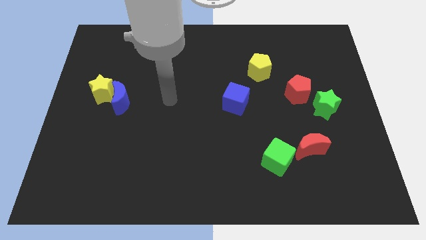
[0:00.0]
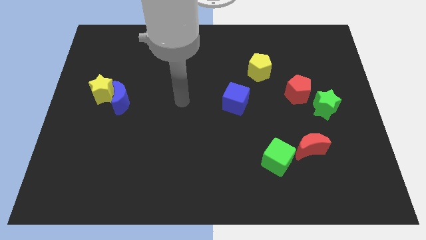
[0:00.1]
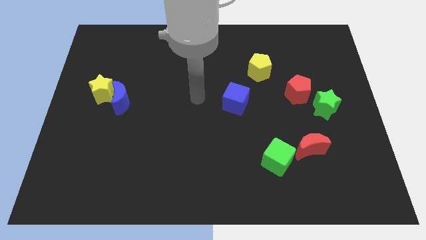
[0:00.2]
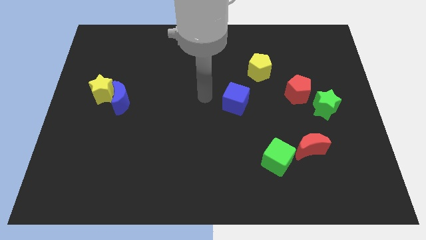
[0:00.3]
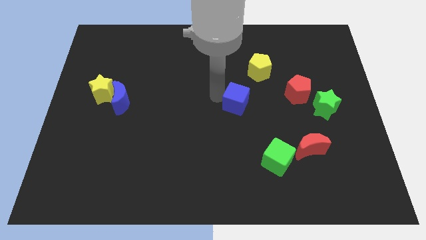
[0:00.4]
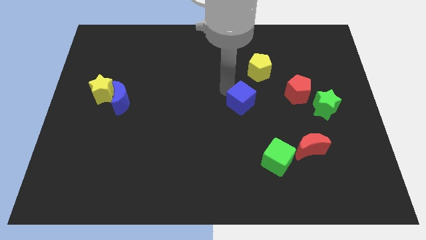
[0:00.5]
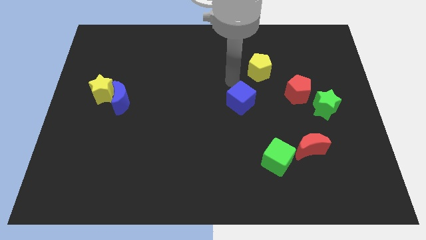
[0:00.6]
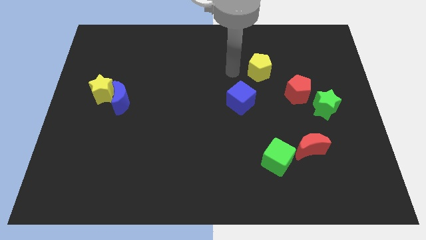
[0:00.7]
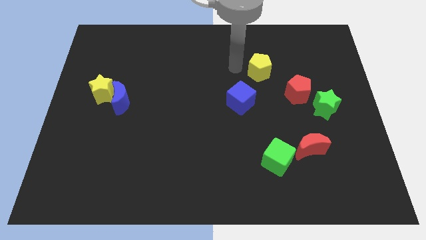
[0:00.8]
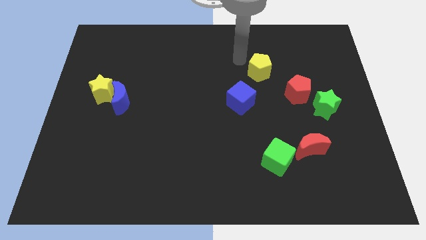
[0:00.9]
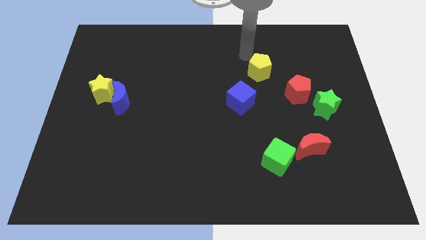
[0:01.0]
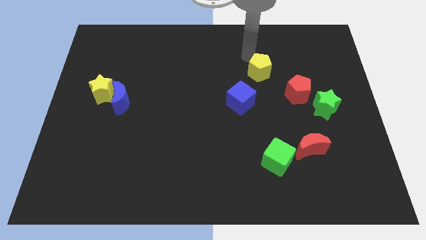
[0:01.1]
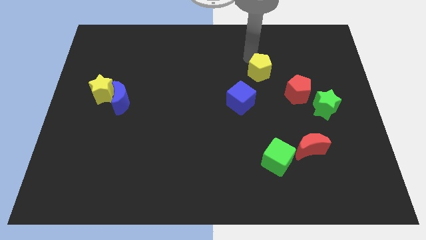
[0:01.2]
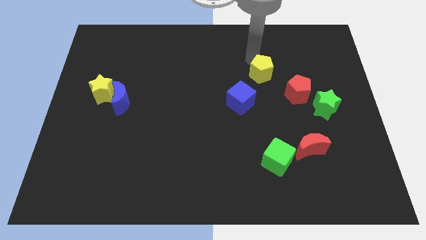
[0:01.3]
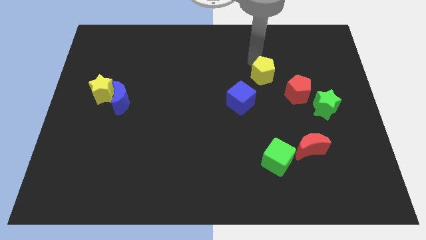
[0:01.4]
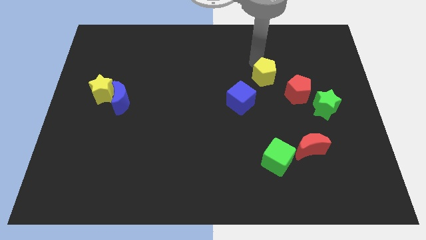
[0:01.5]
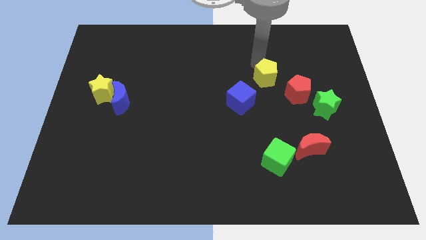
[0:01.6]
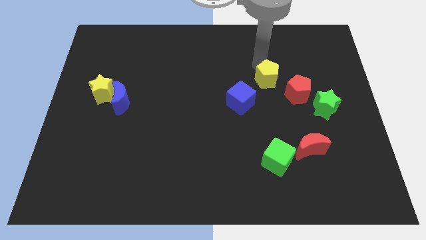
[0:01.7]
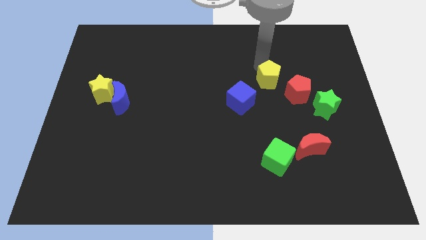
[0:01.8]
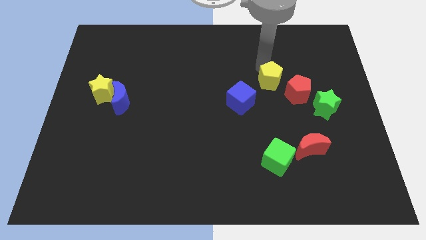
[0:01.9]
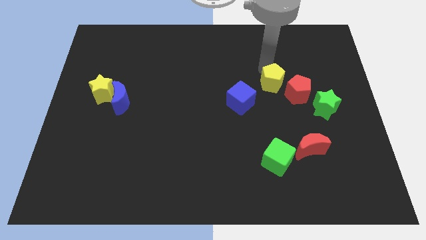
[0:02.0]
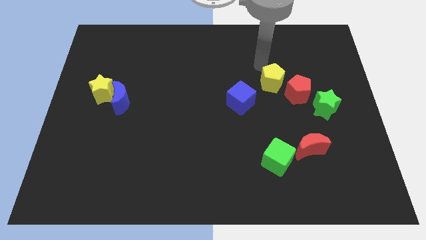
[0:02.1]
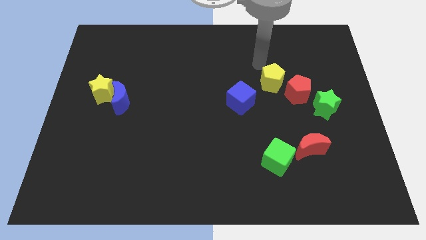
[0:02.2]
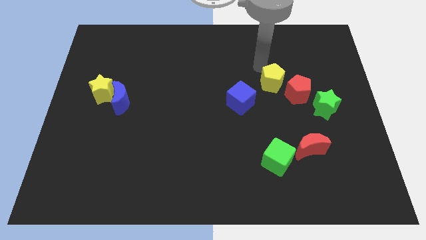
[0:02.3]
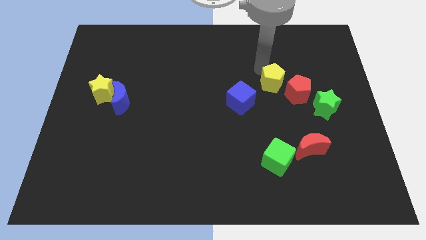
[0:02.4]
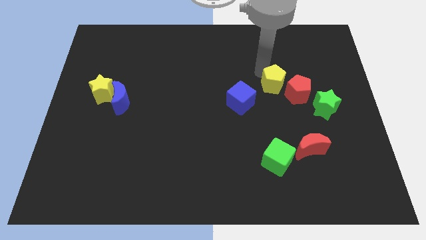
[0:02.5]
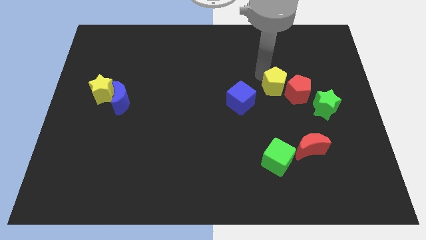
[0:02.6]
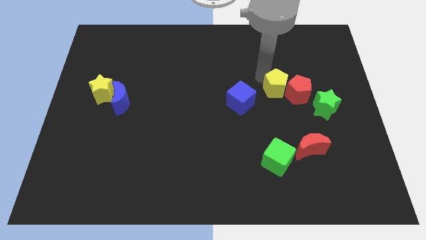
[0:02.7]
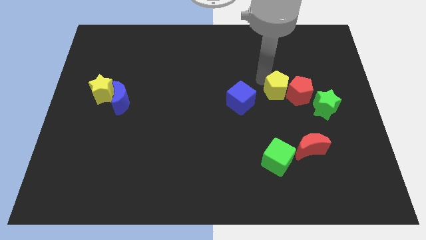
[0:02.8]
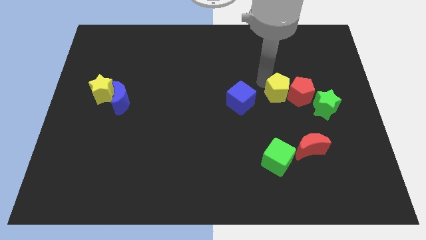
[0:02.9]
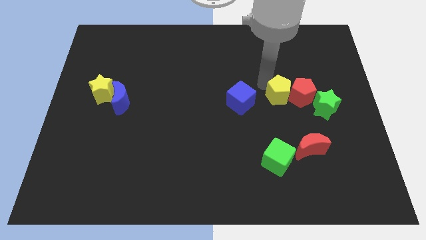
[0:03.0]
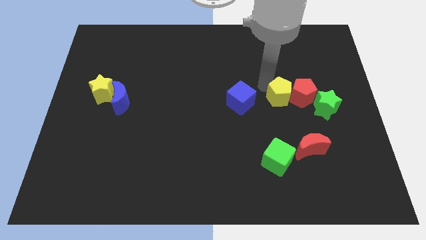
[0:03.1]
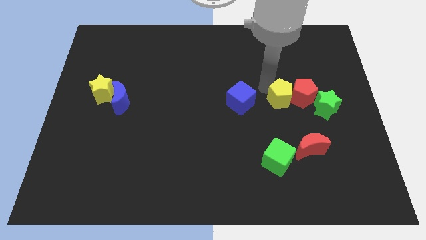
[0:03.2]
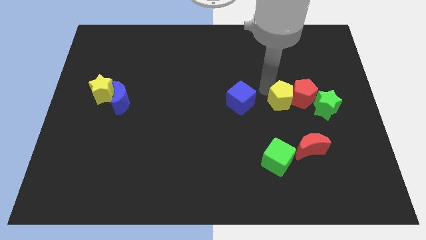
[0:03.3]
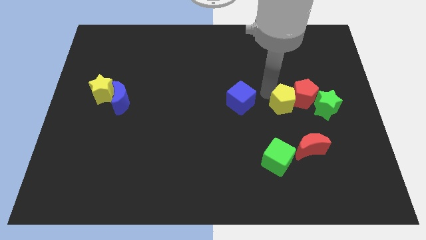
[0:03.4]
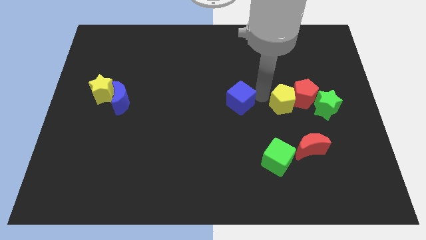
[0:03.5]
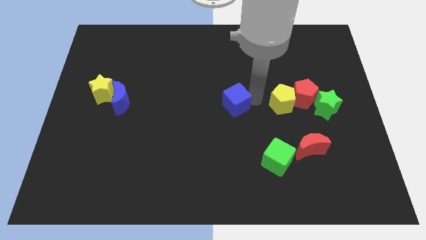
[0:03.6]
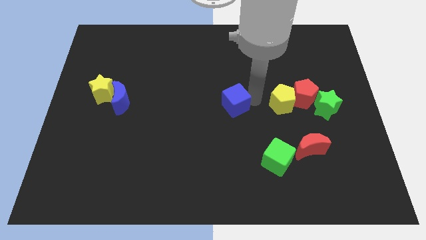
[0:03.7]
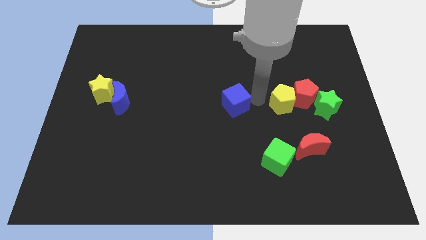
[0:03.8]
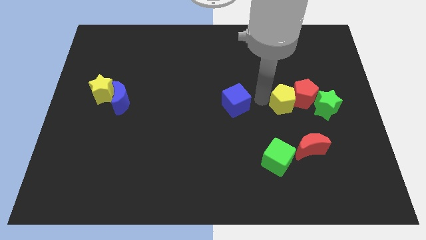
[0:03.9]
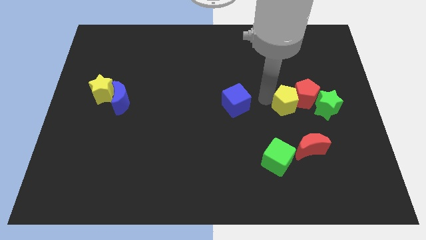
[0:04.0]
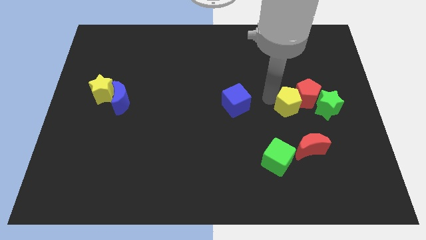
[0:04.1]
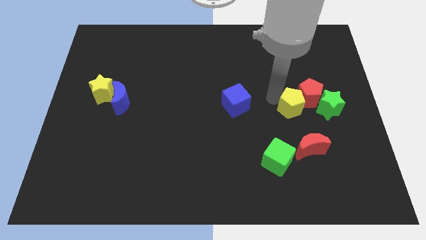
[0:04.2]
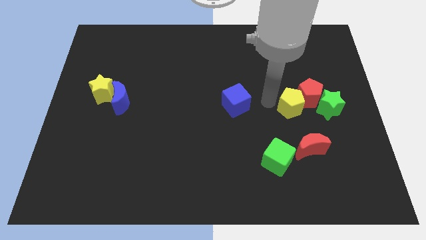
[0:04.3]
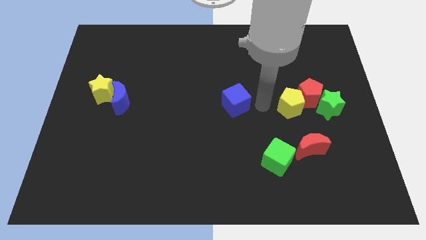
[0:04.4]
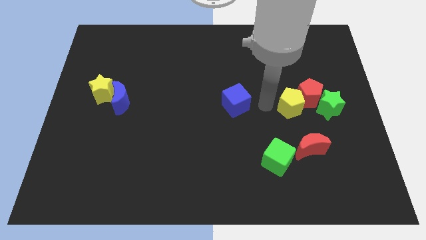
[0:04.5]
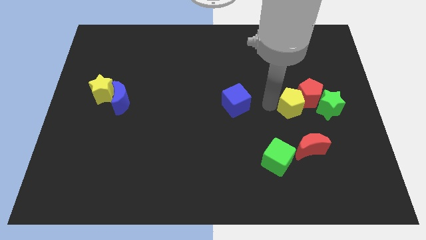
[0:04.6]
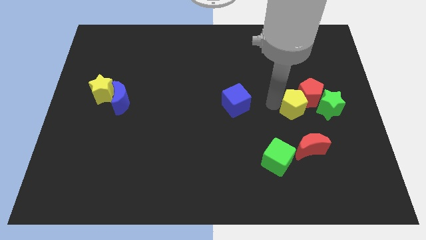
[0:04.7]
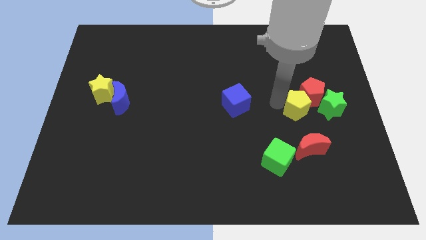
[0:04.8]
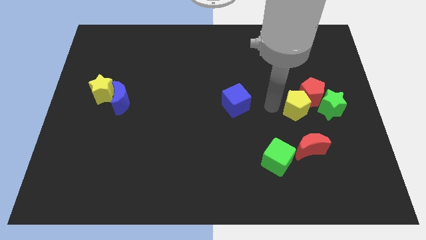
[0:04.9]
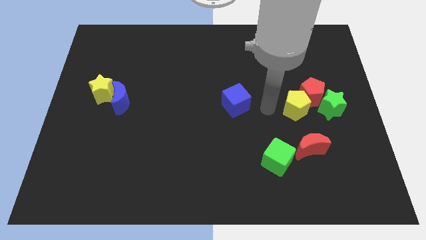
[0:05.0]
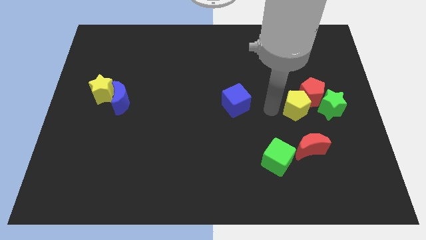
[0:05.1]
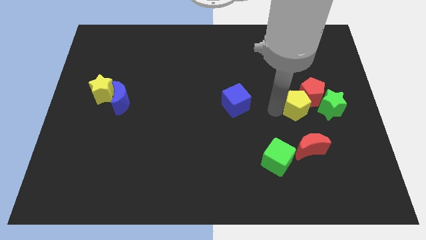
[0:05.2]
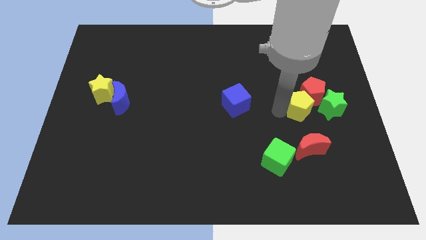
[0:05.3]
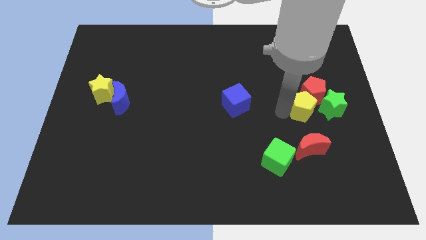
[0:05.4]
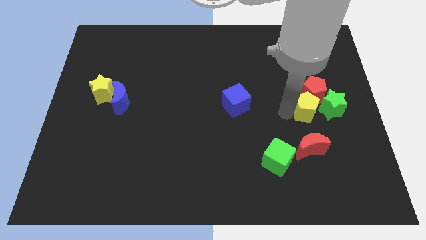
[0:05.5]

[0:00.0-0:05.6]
slide the yellow pentagon to the green star

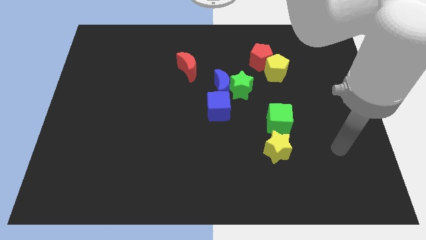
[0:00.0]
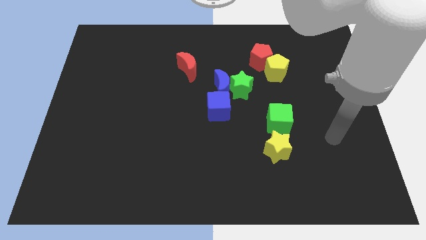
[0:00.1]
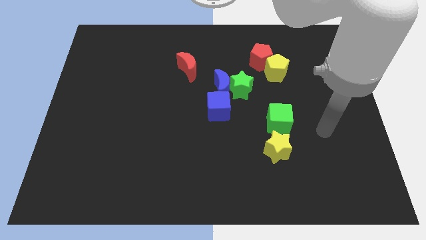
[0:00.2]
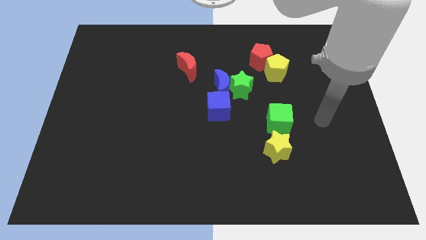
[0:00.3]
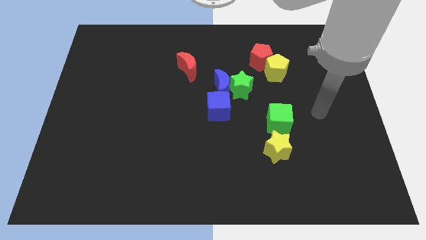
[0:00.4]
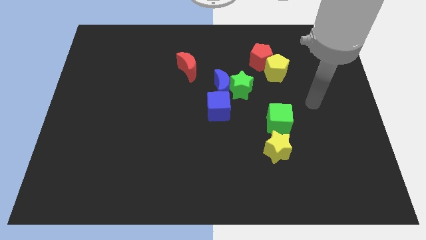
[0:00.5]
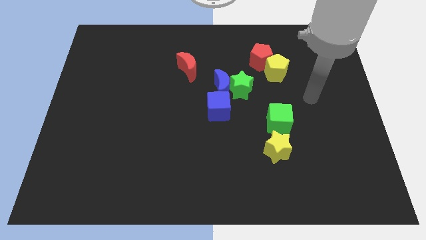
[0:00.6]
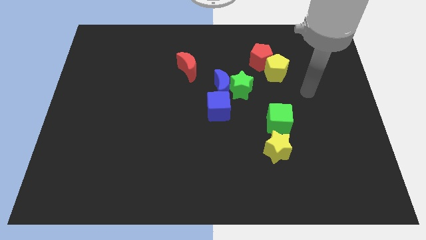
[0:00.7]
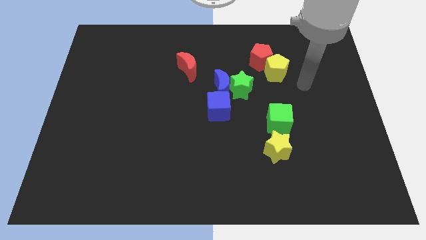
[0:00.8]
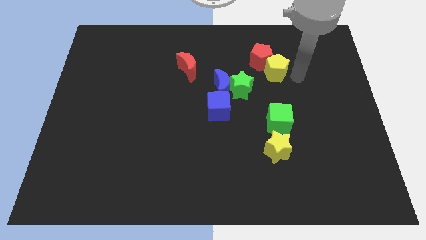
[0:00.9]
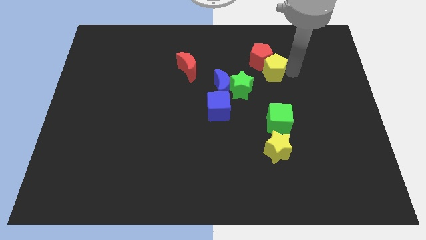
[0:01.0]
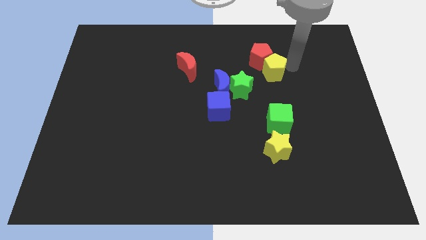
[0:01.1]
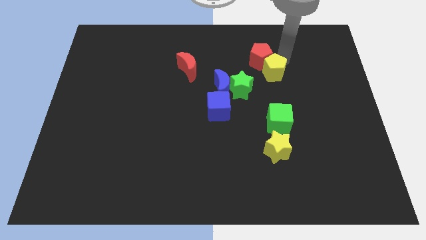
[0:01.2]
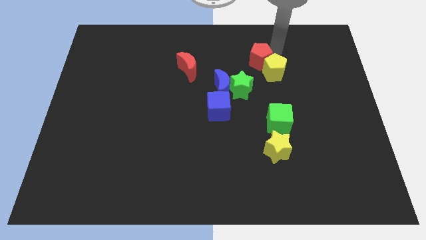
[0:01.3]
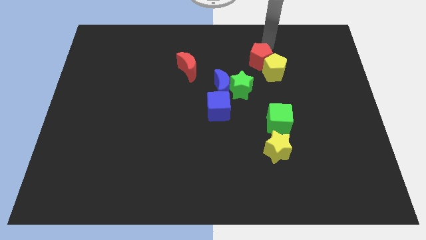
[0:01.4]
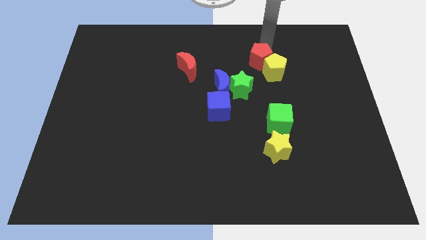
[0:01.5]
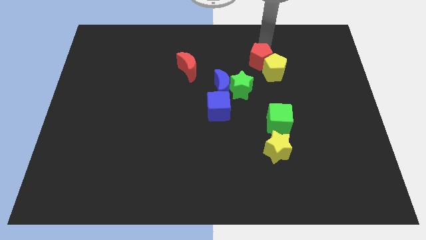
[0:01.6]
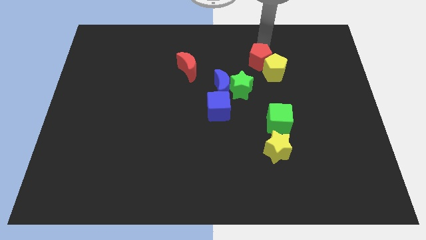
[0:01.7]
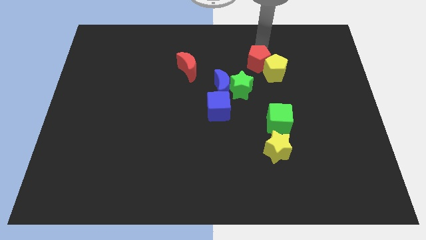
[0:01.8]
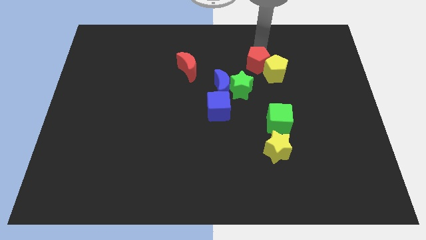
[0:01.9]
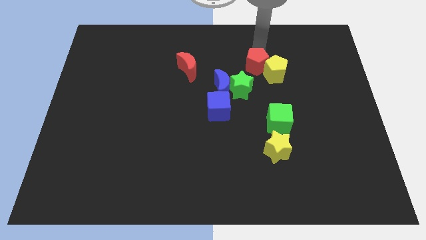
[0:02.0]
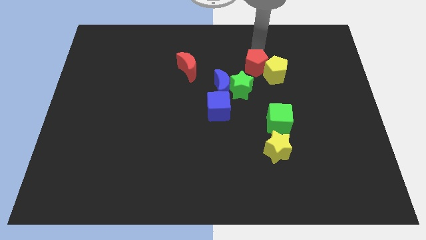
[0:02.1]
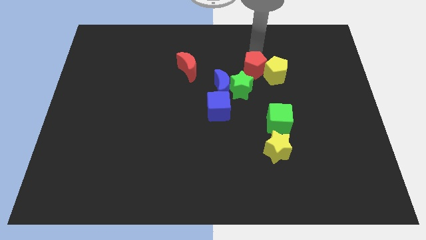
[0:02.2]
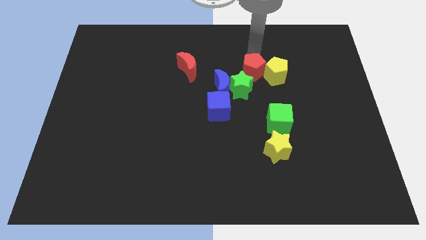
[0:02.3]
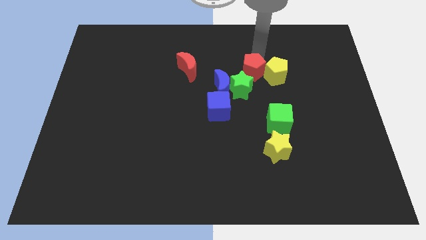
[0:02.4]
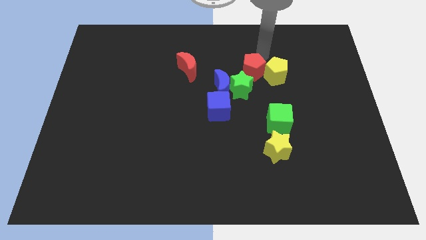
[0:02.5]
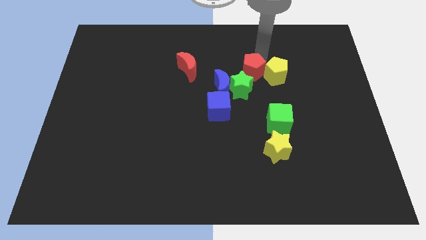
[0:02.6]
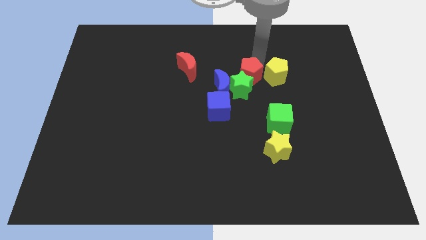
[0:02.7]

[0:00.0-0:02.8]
slide the red pentagon close to the green star
